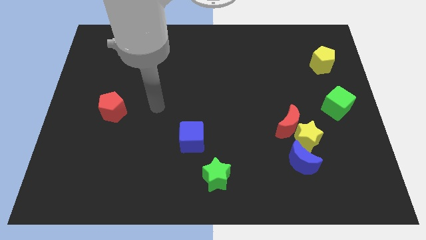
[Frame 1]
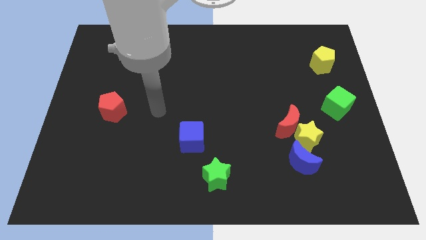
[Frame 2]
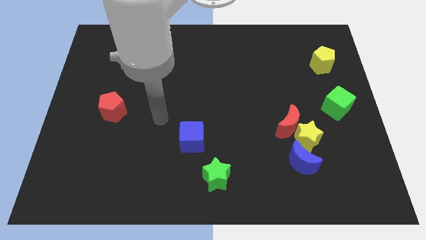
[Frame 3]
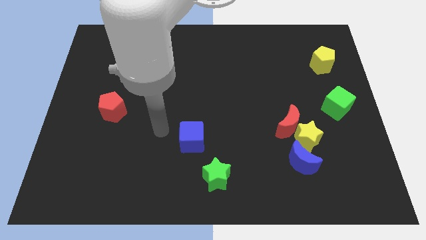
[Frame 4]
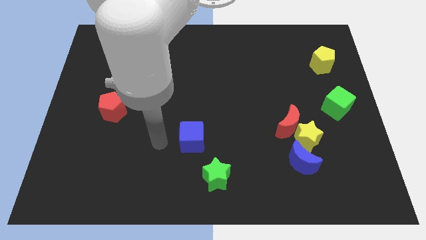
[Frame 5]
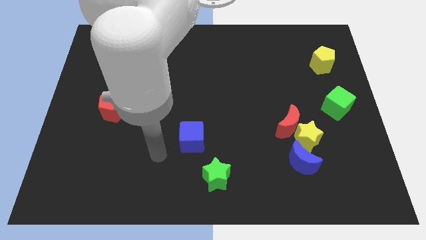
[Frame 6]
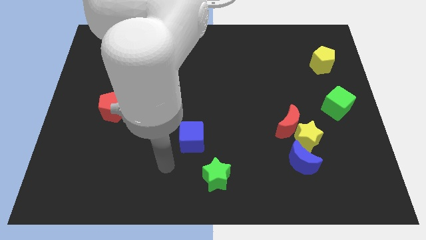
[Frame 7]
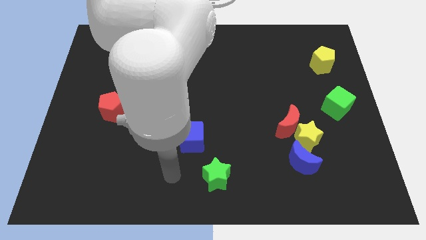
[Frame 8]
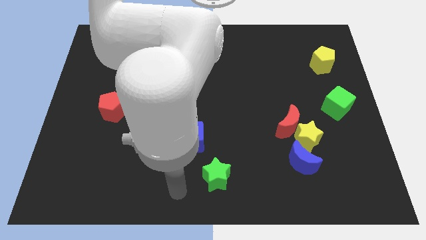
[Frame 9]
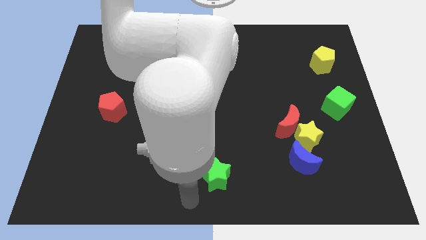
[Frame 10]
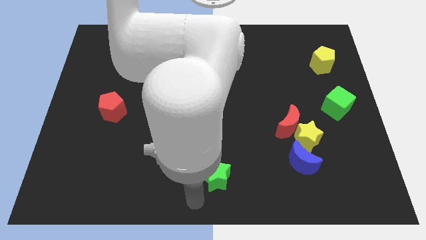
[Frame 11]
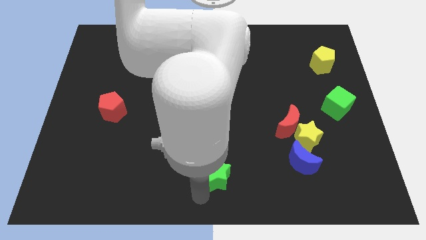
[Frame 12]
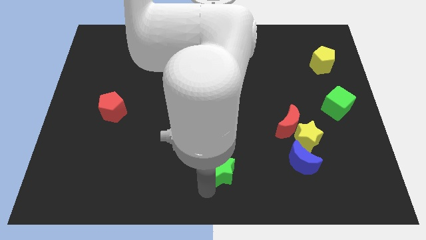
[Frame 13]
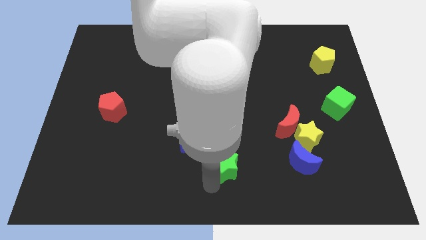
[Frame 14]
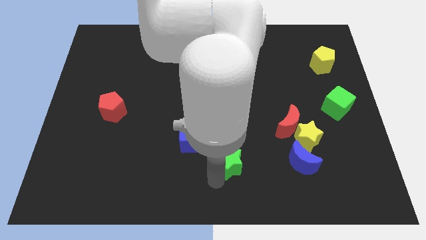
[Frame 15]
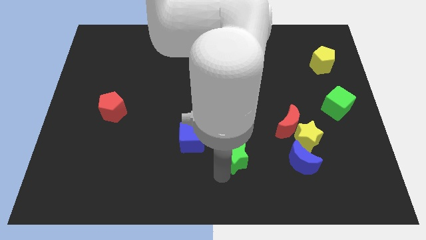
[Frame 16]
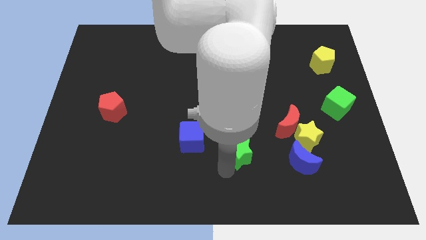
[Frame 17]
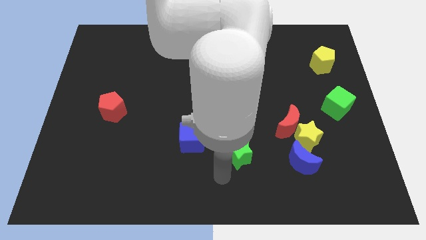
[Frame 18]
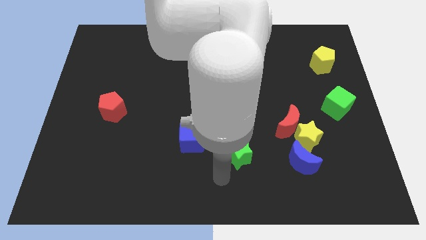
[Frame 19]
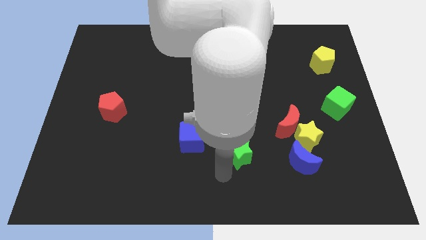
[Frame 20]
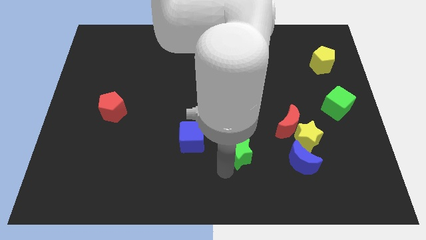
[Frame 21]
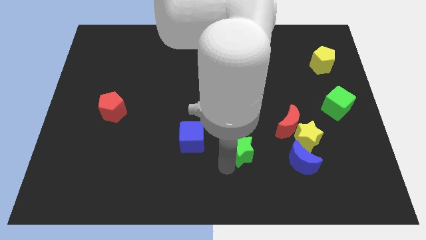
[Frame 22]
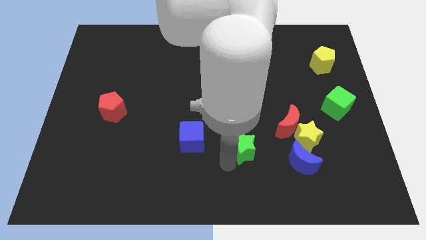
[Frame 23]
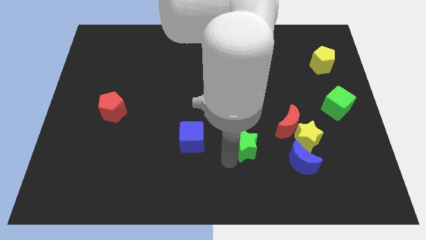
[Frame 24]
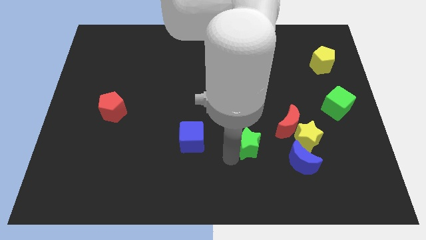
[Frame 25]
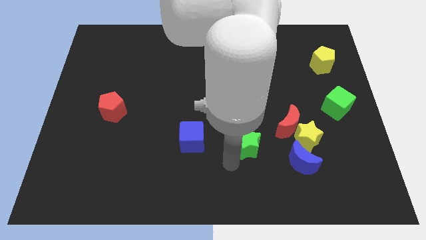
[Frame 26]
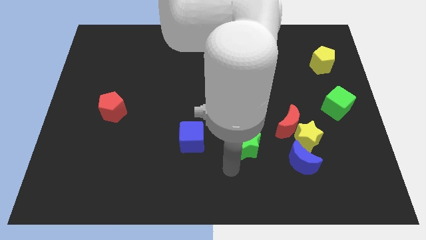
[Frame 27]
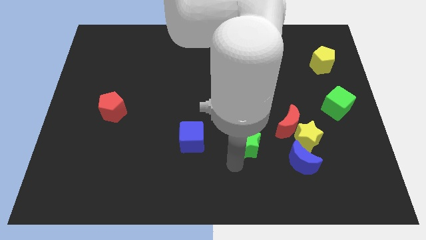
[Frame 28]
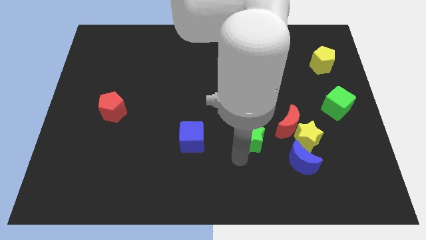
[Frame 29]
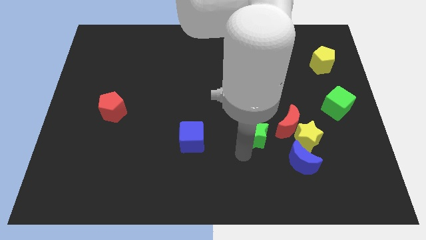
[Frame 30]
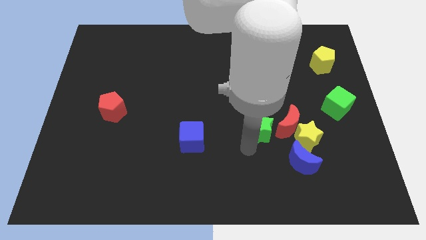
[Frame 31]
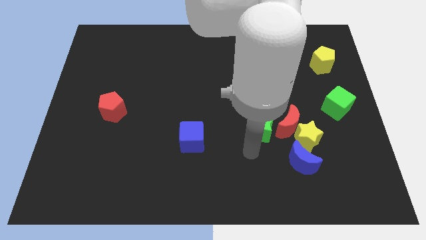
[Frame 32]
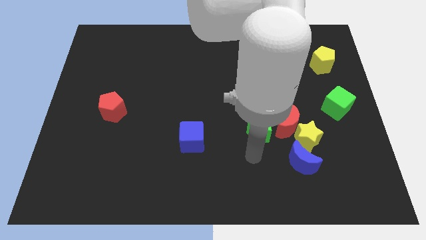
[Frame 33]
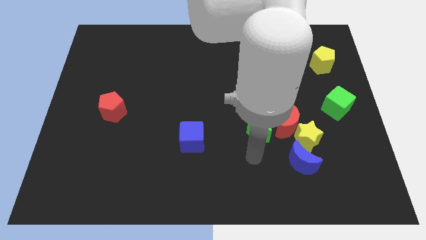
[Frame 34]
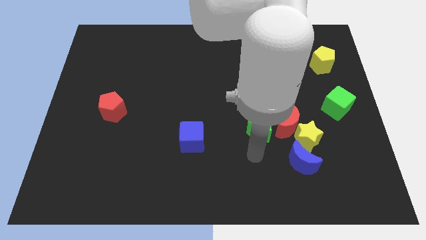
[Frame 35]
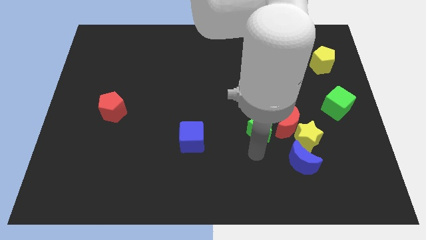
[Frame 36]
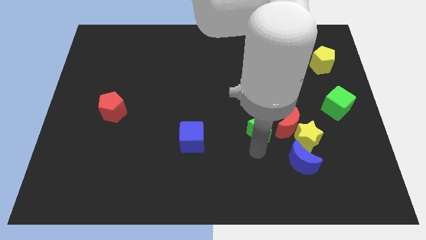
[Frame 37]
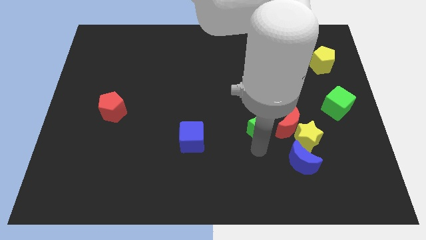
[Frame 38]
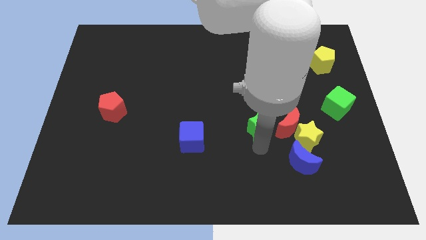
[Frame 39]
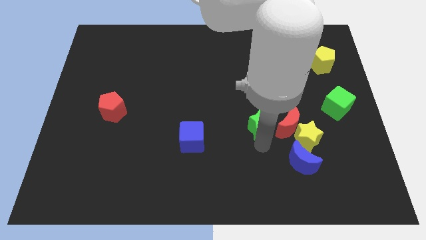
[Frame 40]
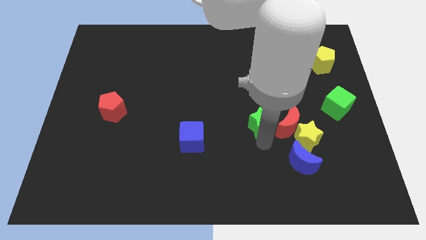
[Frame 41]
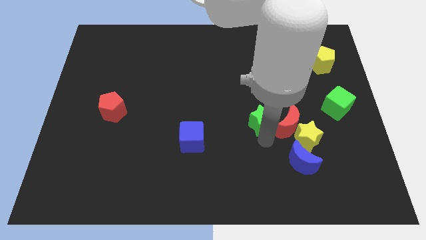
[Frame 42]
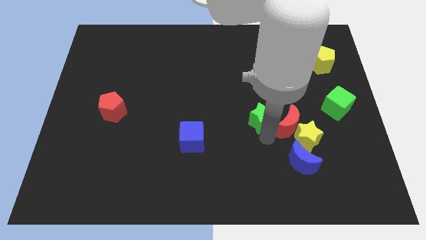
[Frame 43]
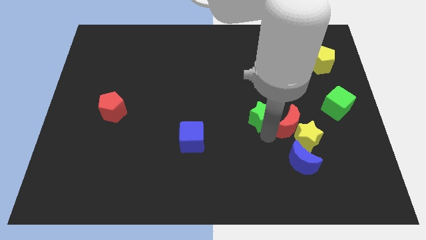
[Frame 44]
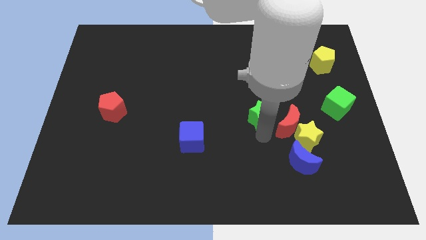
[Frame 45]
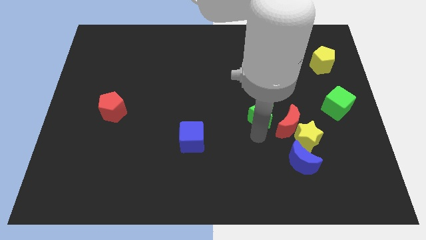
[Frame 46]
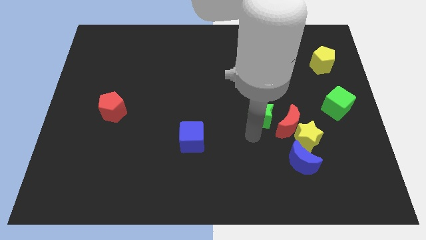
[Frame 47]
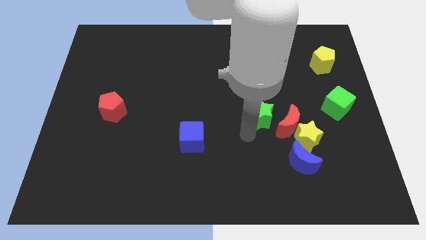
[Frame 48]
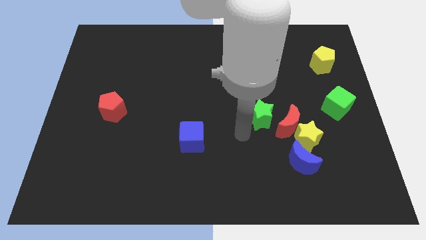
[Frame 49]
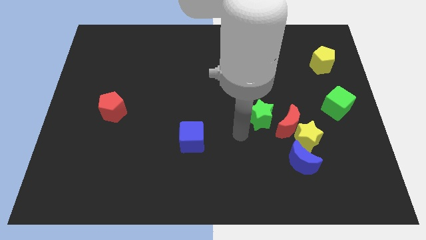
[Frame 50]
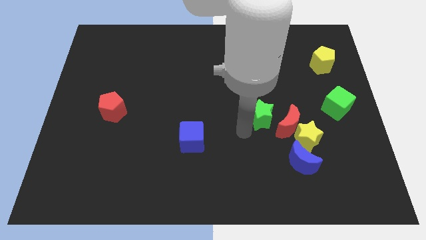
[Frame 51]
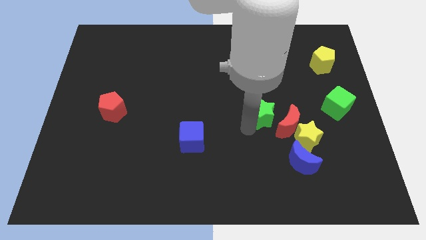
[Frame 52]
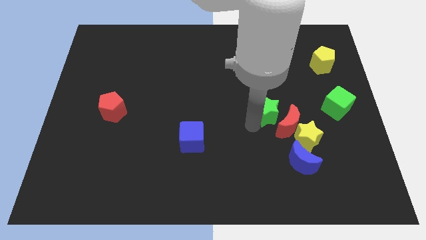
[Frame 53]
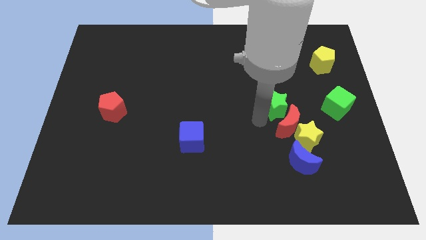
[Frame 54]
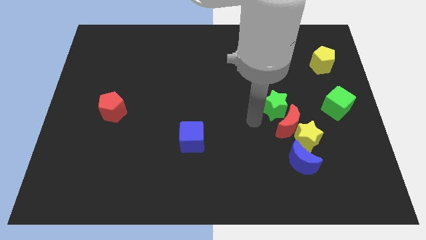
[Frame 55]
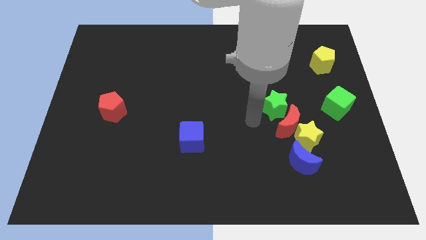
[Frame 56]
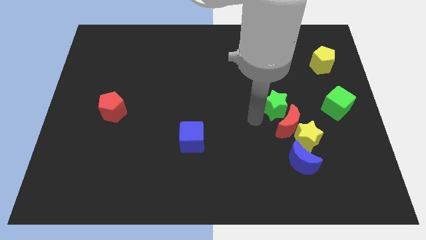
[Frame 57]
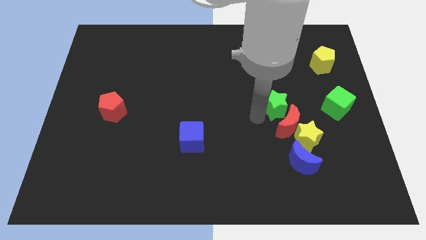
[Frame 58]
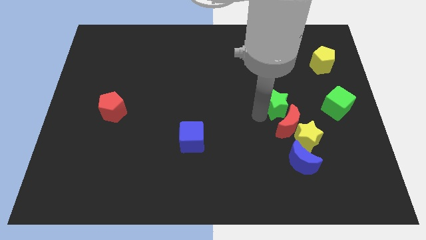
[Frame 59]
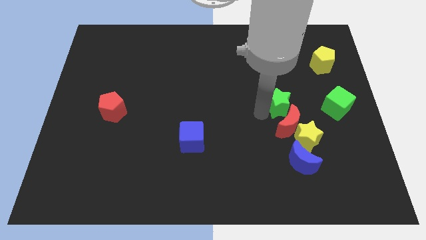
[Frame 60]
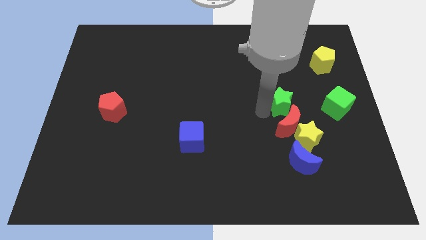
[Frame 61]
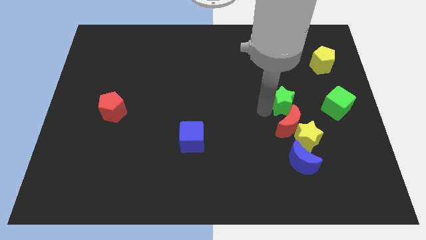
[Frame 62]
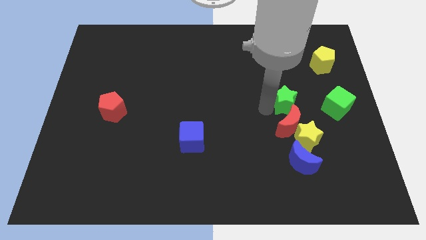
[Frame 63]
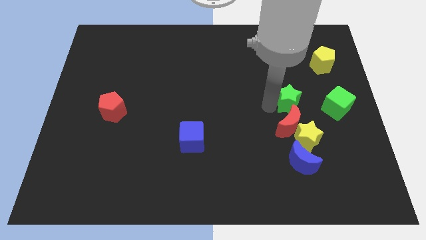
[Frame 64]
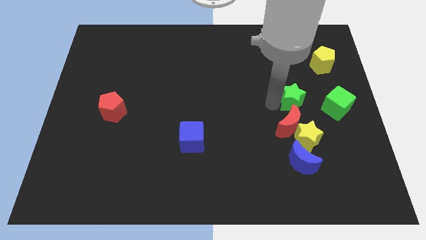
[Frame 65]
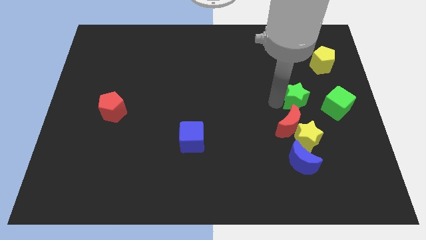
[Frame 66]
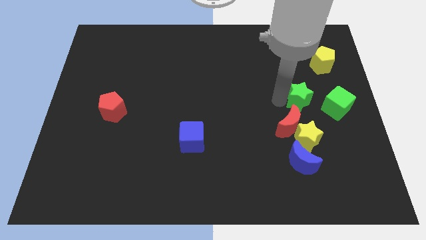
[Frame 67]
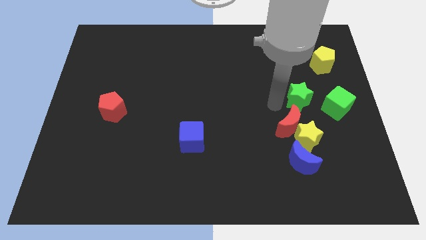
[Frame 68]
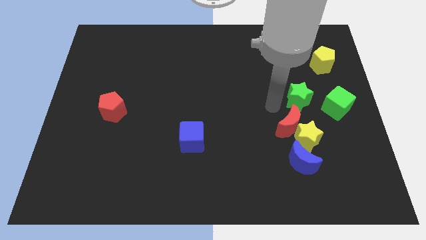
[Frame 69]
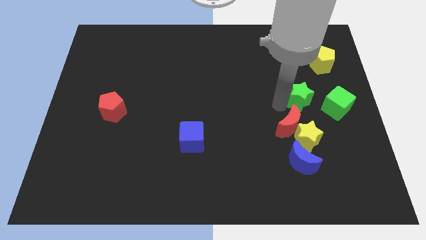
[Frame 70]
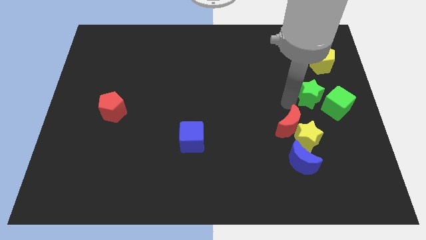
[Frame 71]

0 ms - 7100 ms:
slide the green star to the bottom of the yellow pentagon

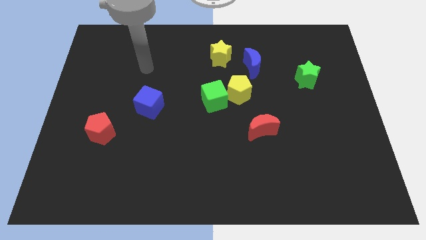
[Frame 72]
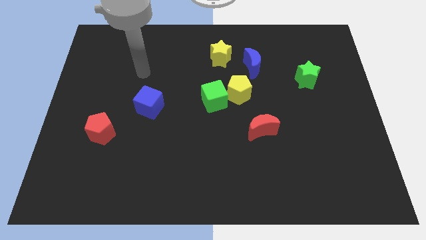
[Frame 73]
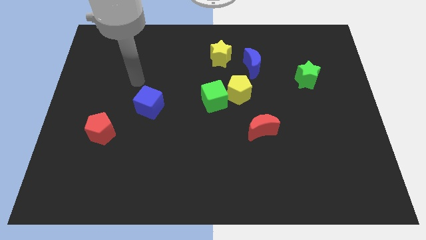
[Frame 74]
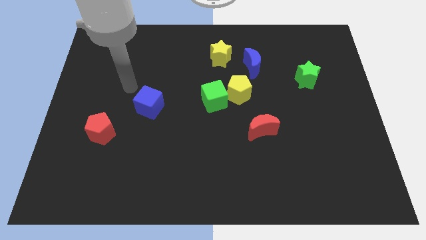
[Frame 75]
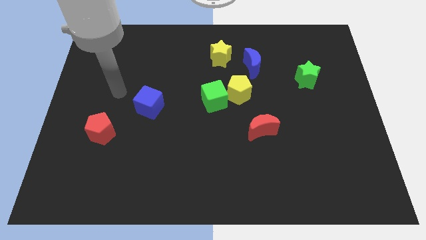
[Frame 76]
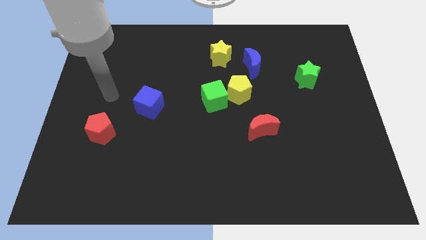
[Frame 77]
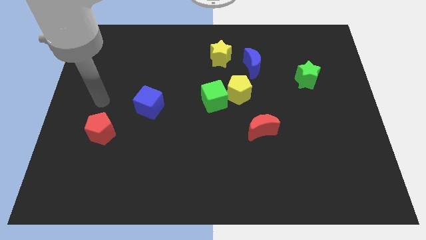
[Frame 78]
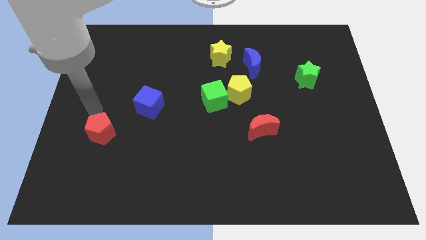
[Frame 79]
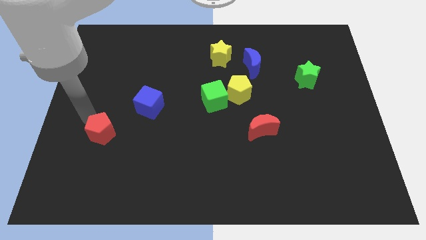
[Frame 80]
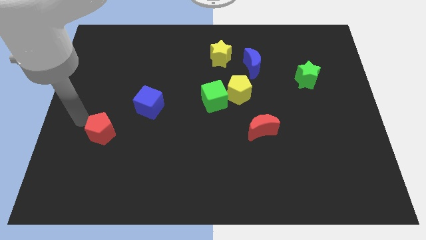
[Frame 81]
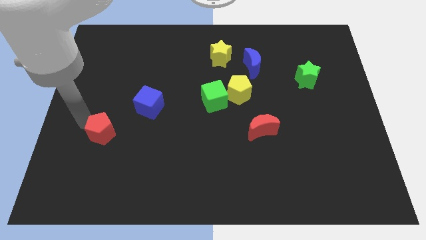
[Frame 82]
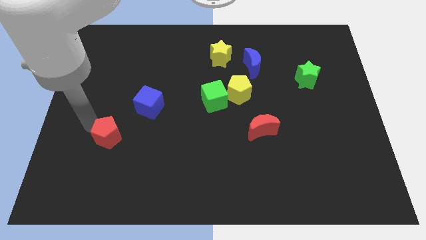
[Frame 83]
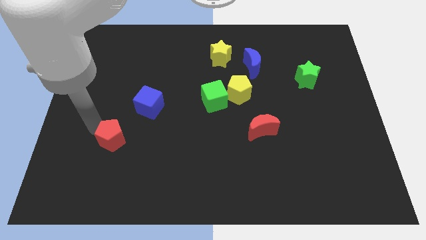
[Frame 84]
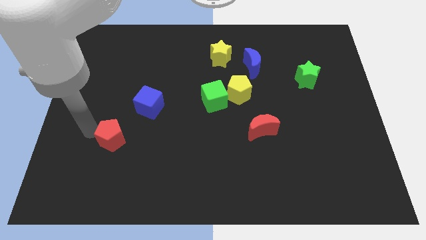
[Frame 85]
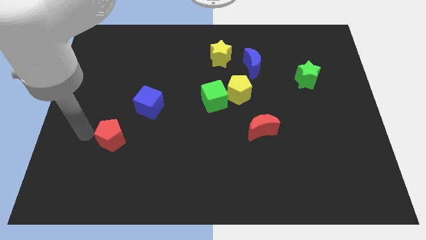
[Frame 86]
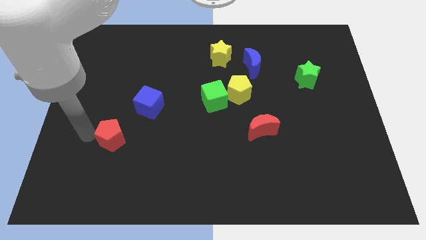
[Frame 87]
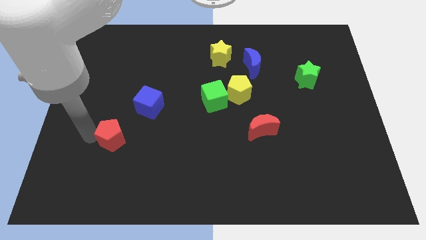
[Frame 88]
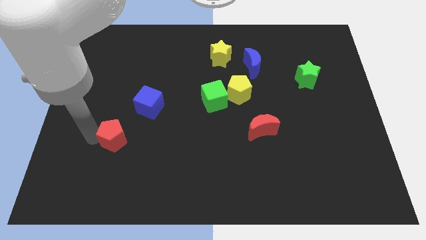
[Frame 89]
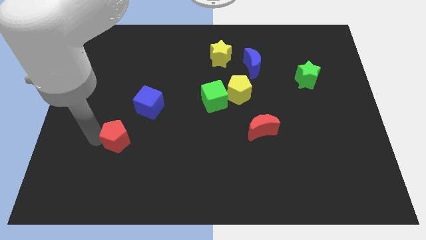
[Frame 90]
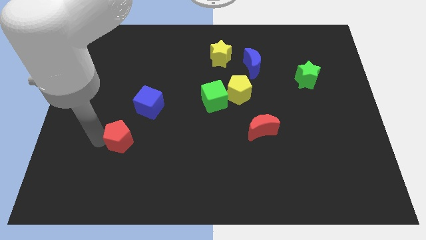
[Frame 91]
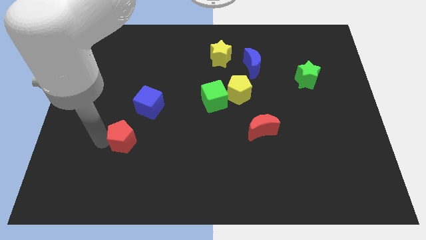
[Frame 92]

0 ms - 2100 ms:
slide the red pentagon to the bottom side of the blue cube
